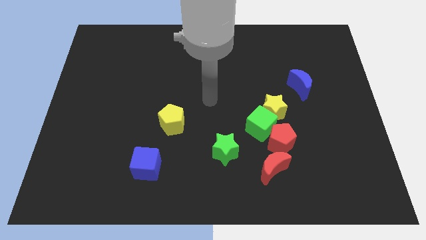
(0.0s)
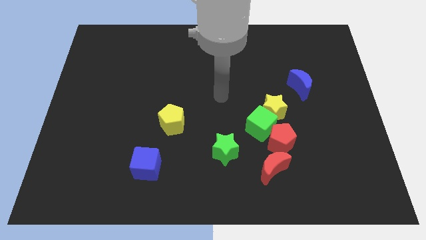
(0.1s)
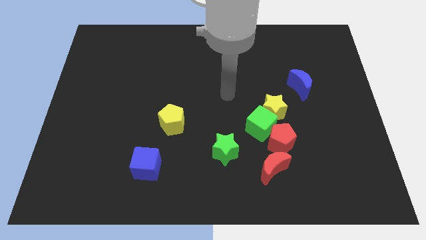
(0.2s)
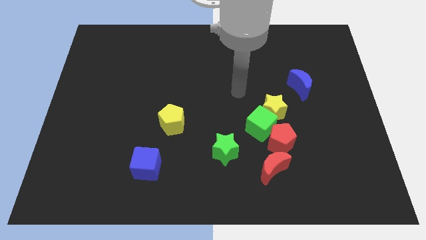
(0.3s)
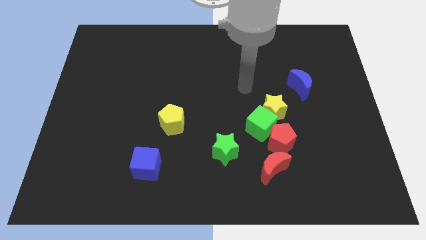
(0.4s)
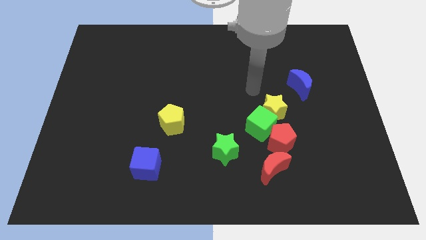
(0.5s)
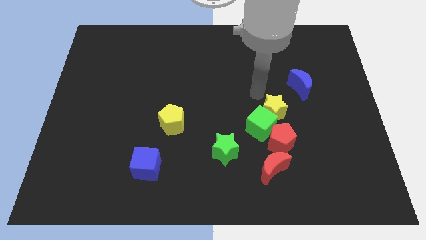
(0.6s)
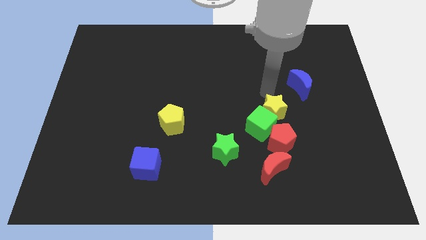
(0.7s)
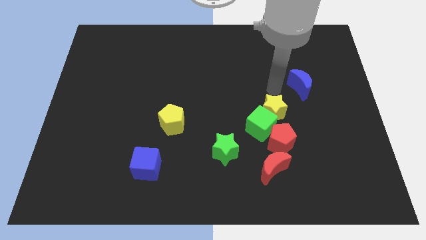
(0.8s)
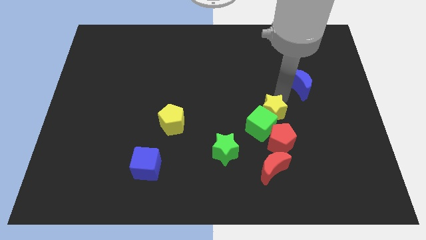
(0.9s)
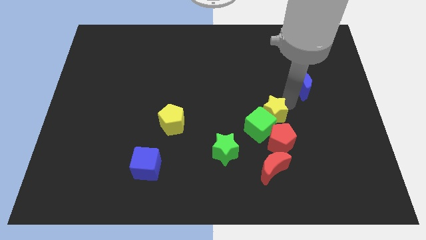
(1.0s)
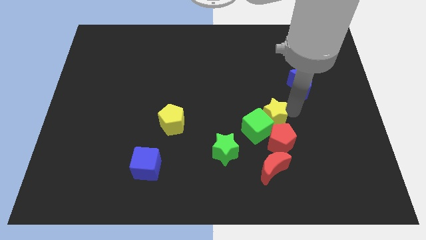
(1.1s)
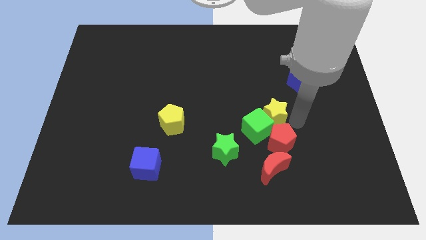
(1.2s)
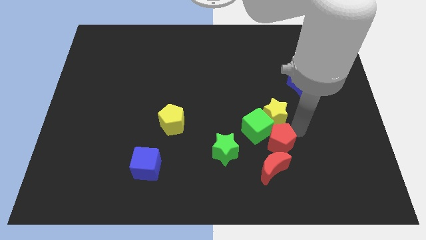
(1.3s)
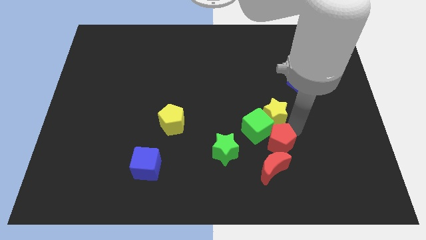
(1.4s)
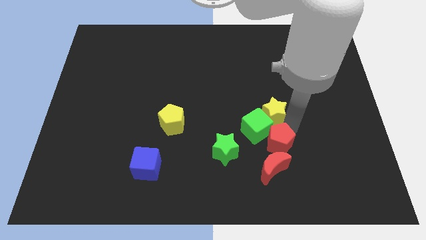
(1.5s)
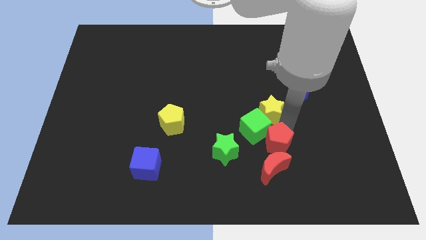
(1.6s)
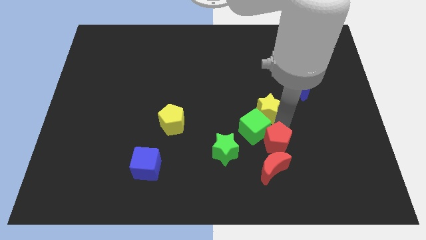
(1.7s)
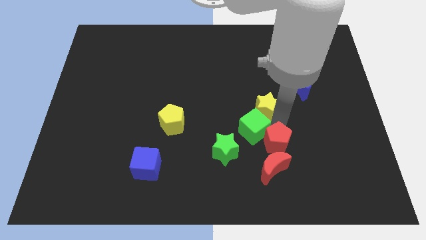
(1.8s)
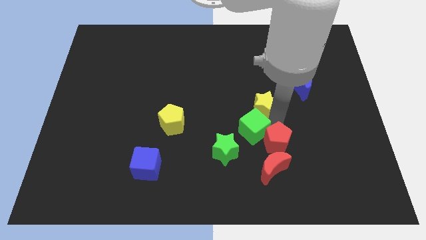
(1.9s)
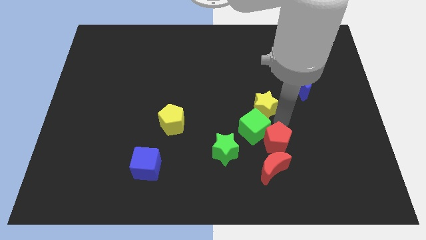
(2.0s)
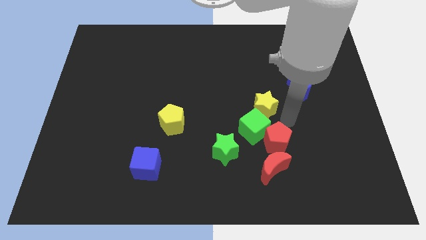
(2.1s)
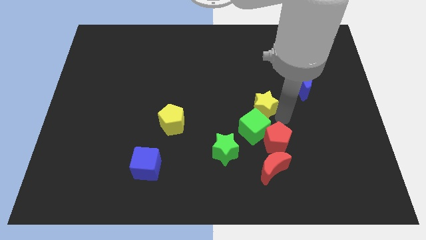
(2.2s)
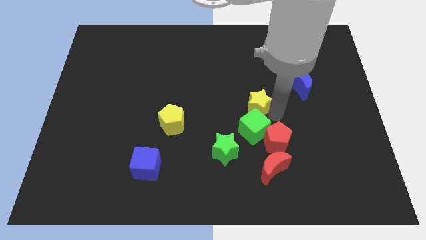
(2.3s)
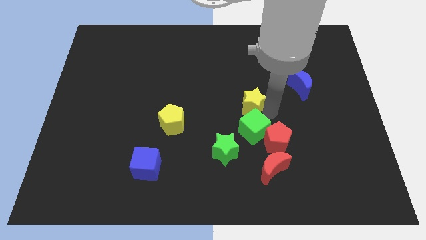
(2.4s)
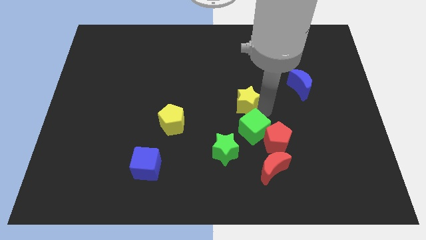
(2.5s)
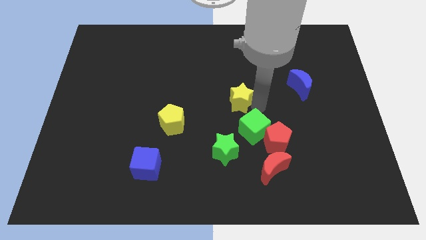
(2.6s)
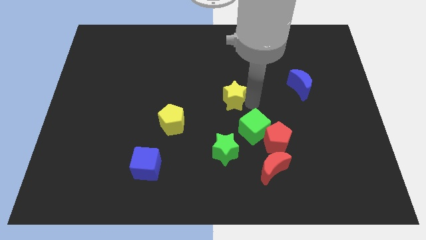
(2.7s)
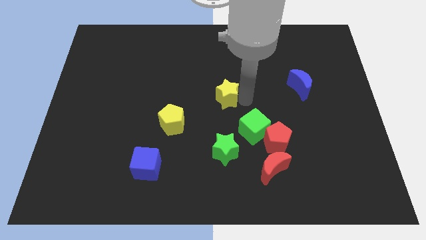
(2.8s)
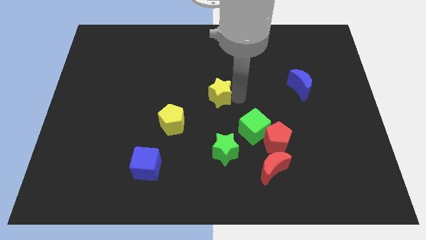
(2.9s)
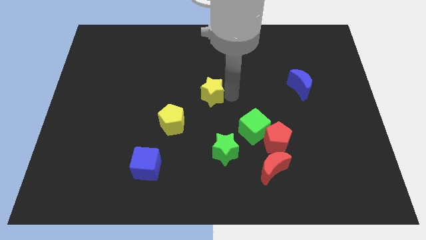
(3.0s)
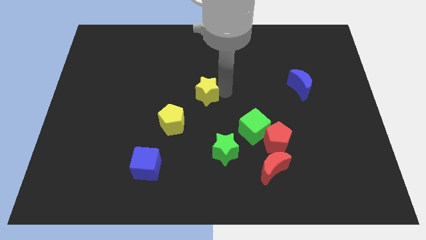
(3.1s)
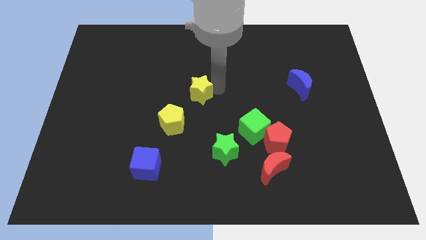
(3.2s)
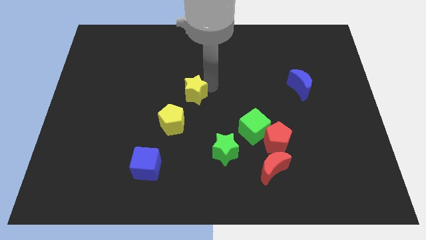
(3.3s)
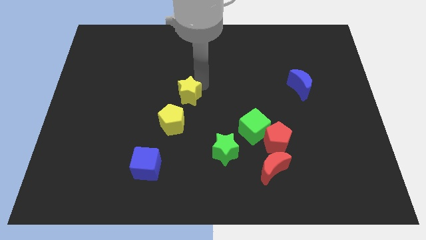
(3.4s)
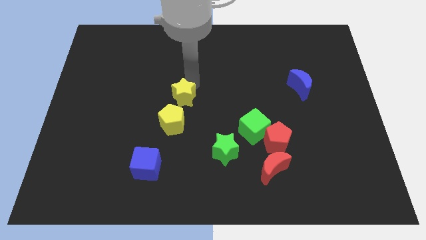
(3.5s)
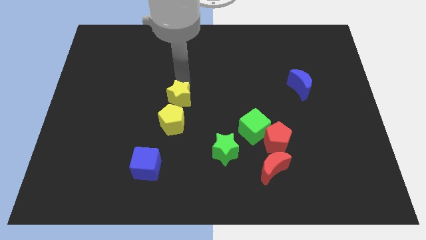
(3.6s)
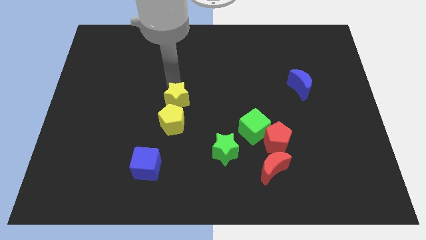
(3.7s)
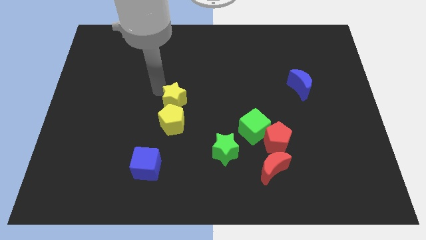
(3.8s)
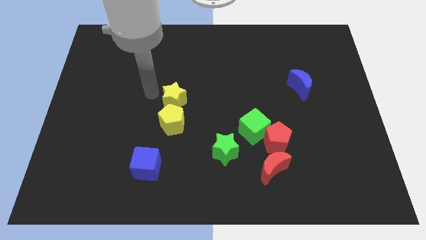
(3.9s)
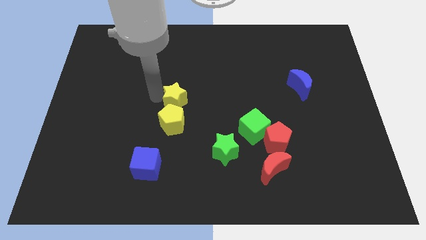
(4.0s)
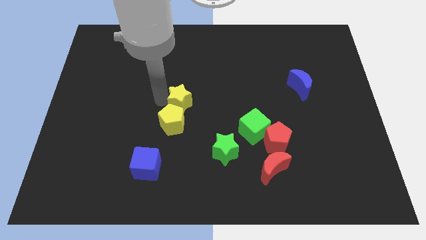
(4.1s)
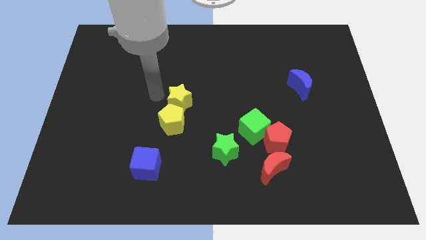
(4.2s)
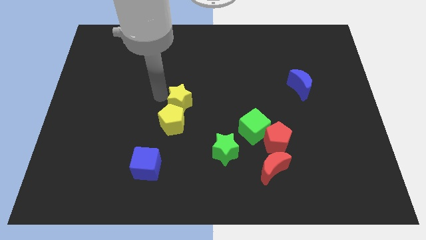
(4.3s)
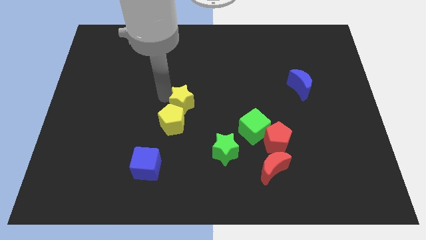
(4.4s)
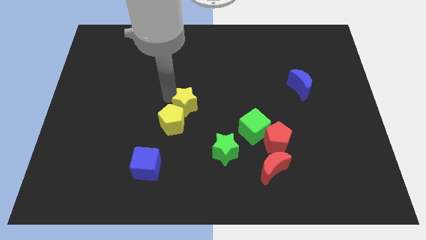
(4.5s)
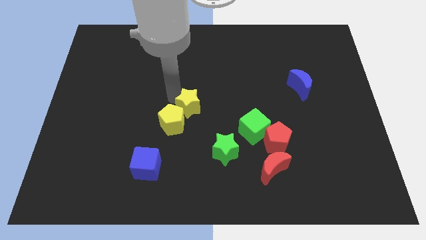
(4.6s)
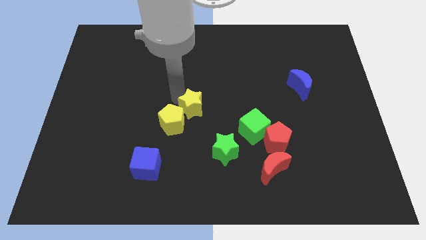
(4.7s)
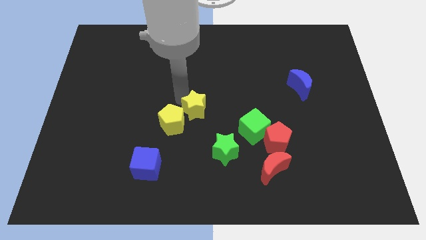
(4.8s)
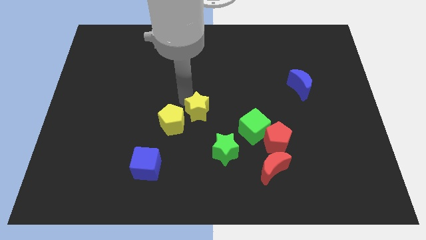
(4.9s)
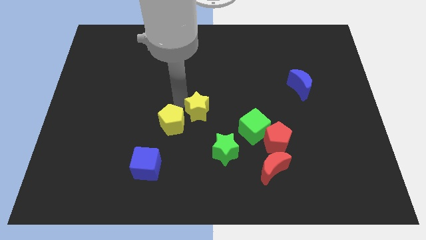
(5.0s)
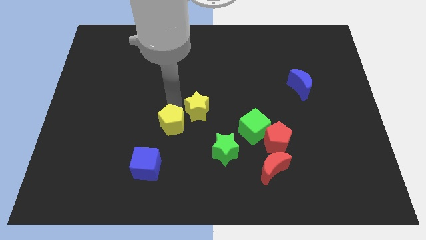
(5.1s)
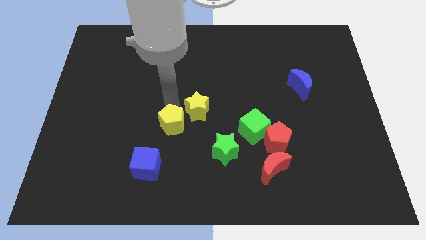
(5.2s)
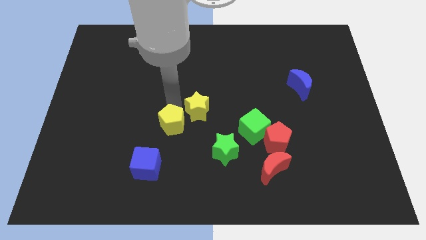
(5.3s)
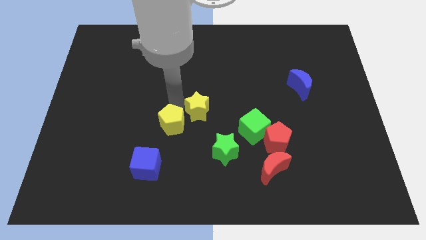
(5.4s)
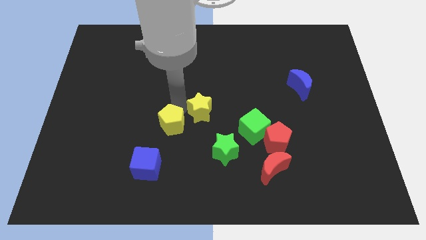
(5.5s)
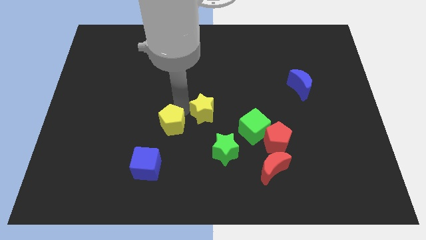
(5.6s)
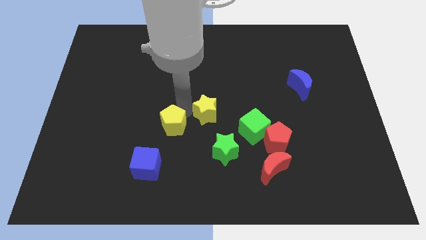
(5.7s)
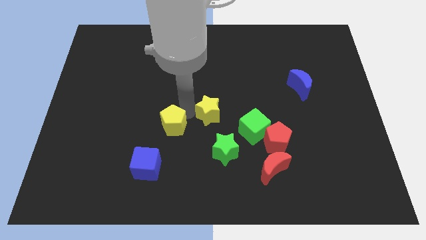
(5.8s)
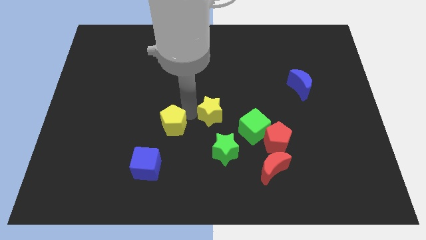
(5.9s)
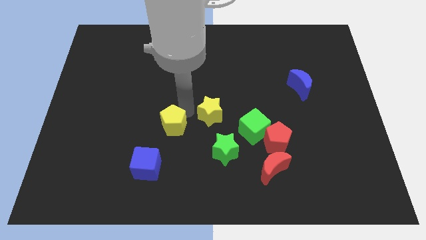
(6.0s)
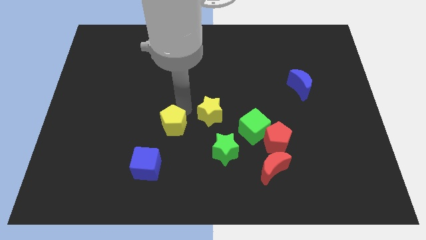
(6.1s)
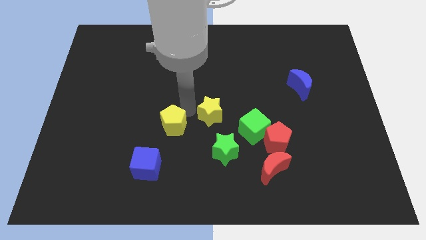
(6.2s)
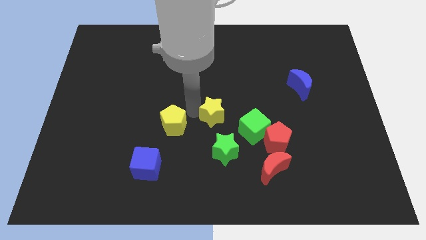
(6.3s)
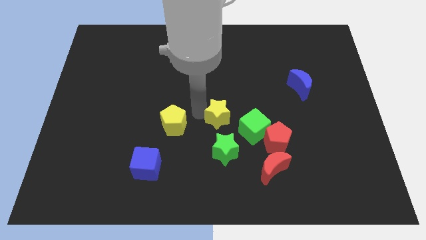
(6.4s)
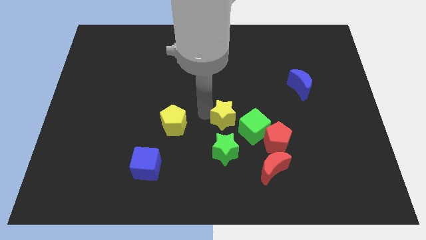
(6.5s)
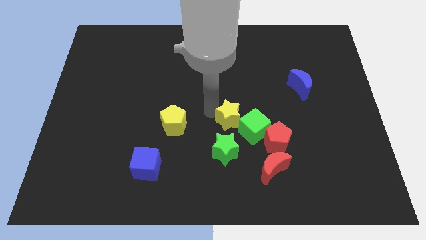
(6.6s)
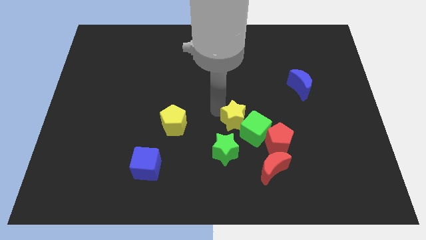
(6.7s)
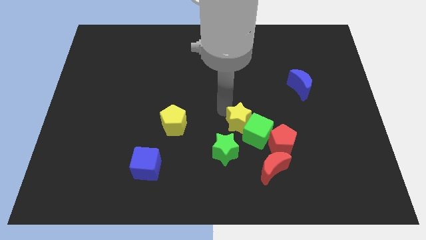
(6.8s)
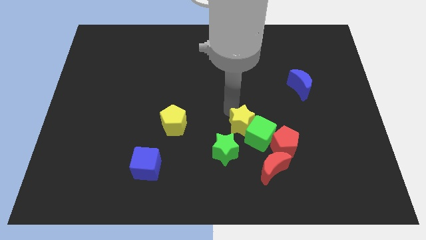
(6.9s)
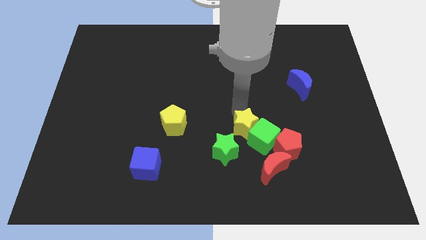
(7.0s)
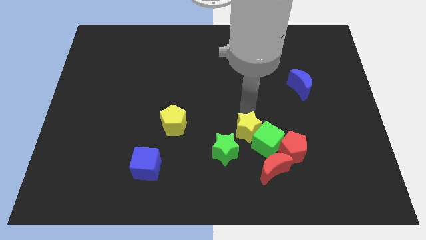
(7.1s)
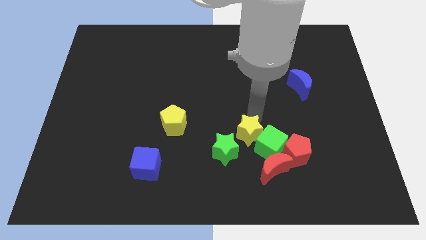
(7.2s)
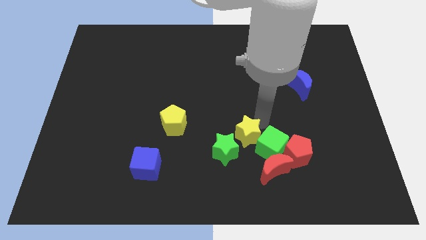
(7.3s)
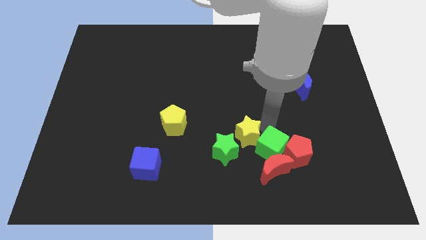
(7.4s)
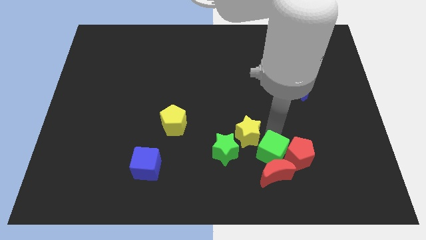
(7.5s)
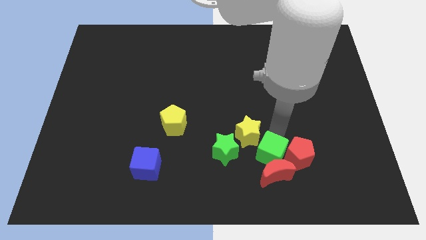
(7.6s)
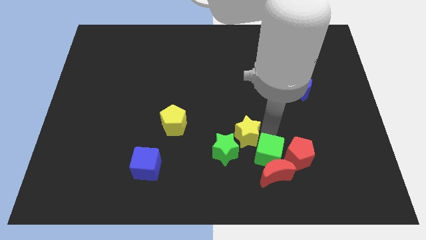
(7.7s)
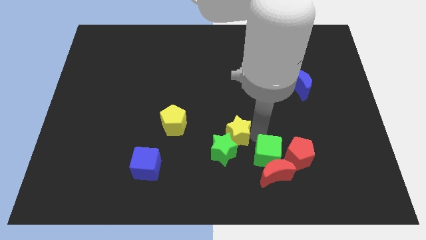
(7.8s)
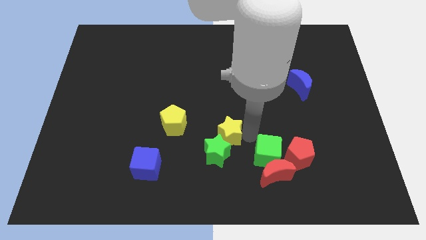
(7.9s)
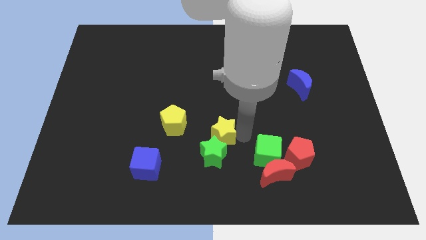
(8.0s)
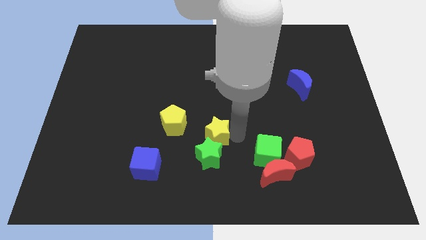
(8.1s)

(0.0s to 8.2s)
move the yellow star diagonally down and to the right of the yellow pentagon
